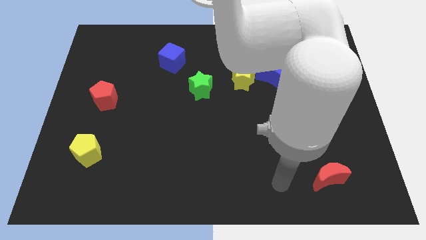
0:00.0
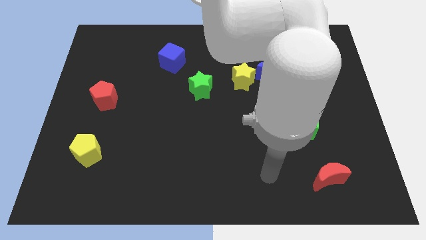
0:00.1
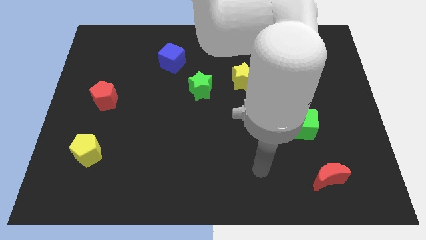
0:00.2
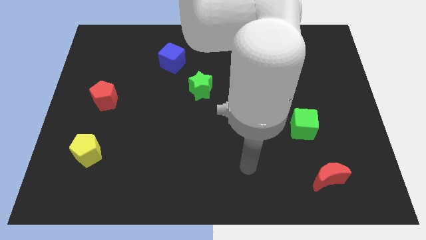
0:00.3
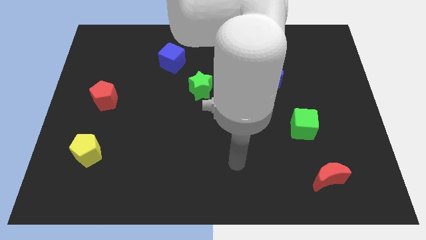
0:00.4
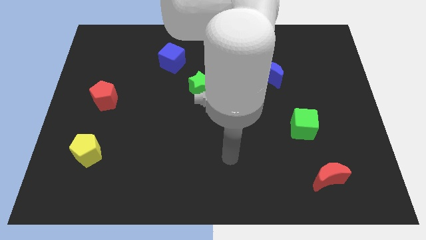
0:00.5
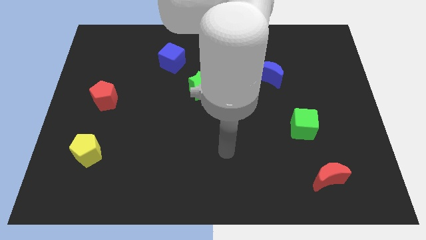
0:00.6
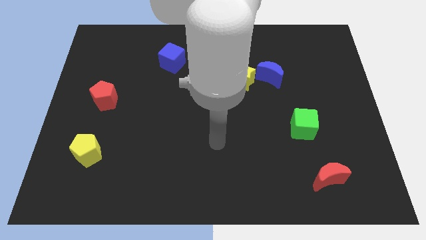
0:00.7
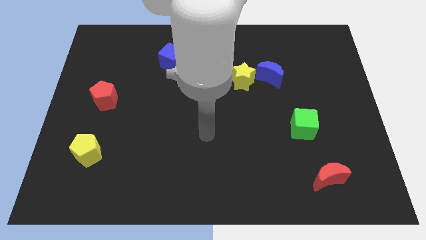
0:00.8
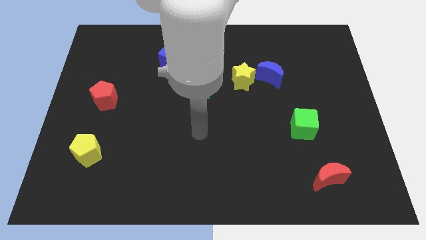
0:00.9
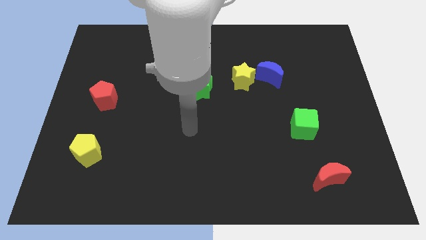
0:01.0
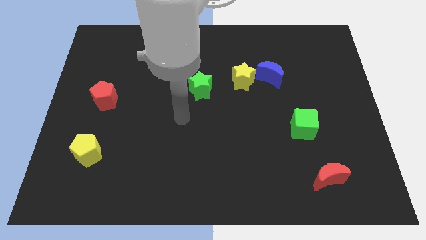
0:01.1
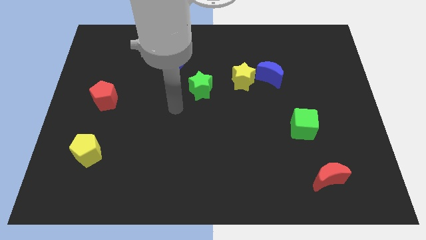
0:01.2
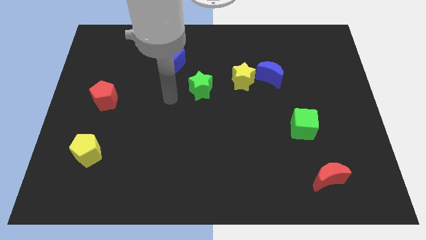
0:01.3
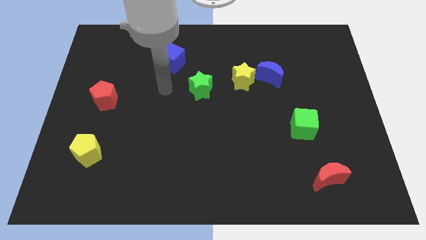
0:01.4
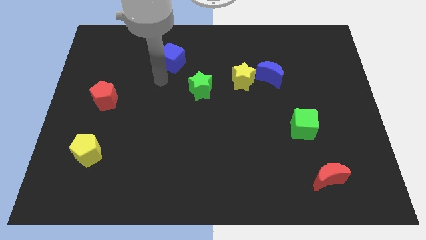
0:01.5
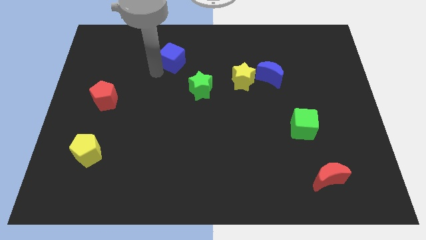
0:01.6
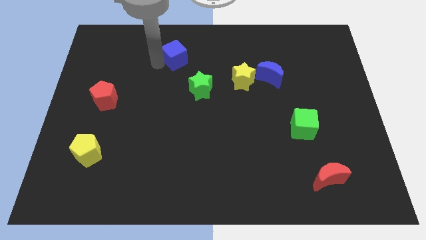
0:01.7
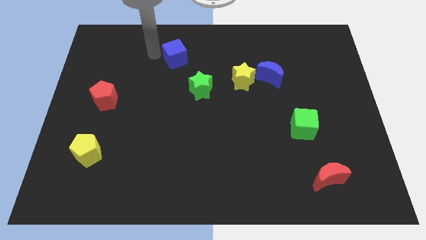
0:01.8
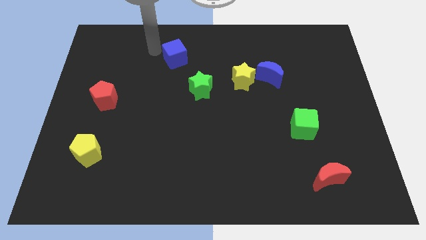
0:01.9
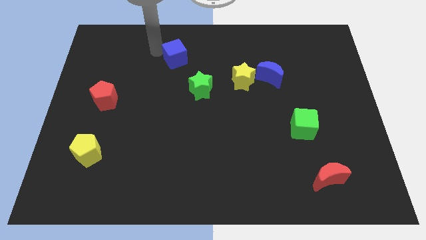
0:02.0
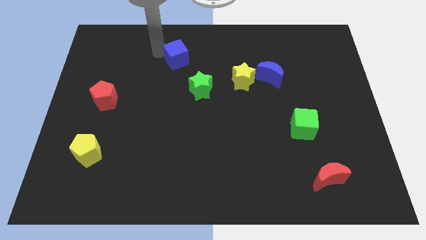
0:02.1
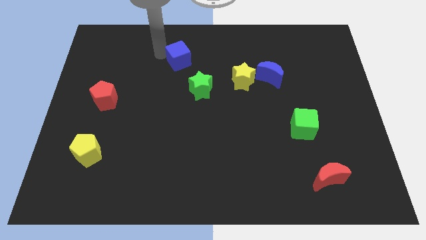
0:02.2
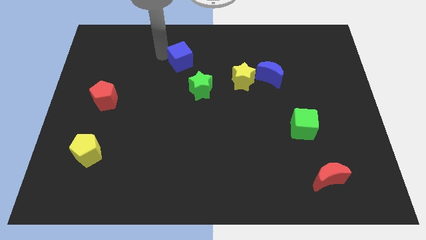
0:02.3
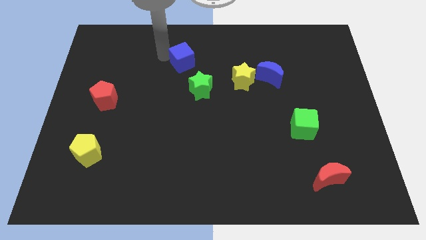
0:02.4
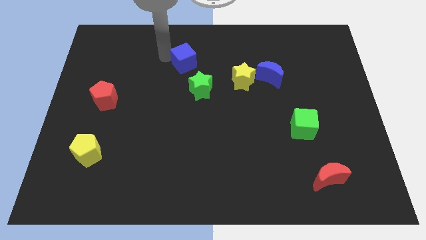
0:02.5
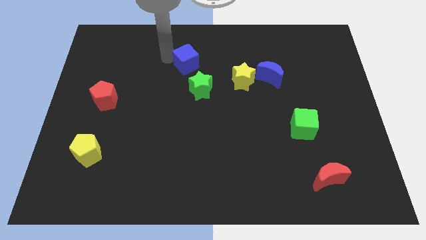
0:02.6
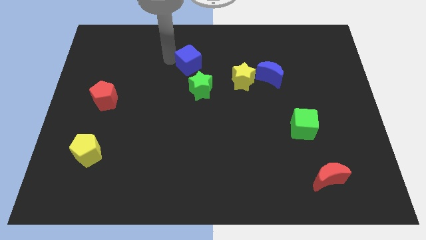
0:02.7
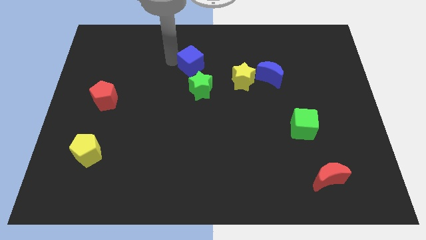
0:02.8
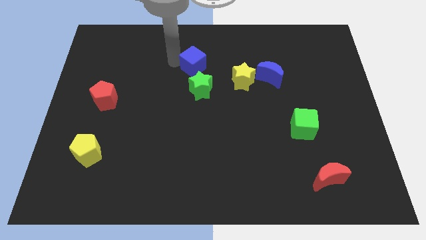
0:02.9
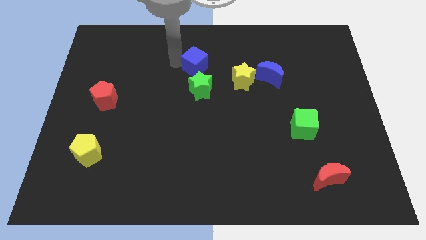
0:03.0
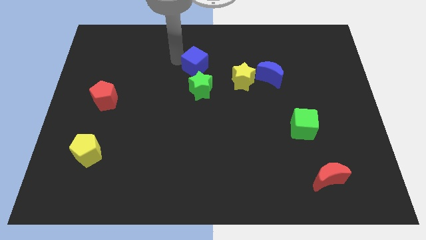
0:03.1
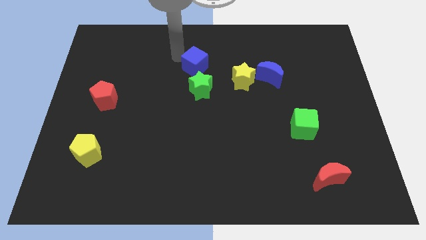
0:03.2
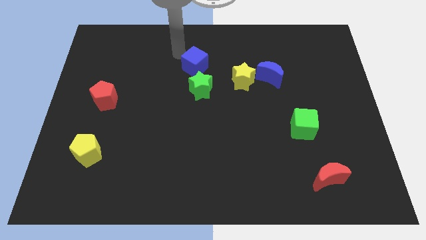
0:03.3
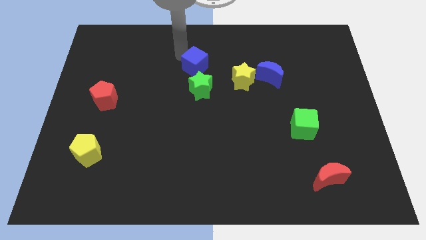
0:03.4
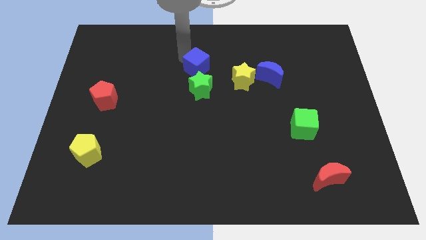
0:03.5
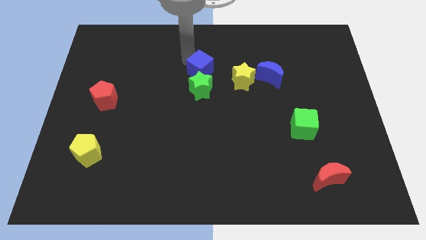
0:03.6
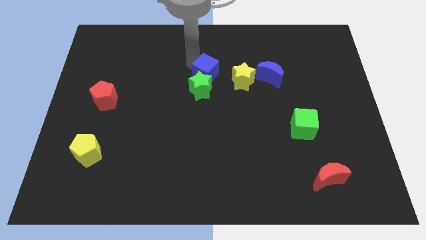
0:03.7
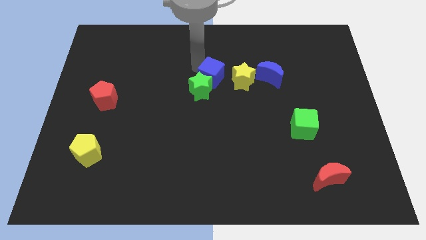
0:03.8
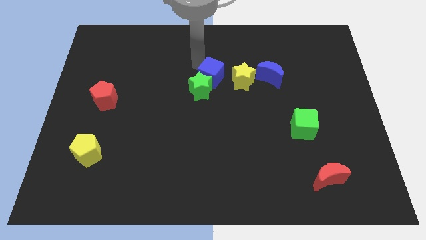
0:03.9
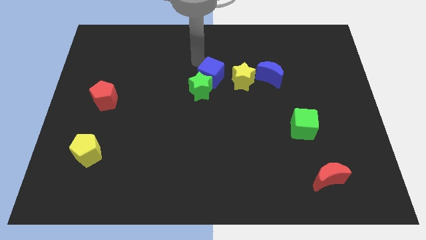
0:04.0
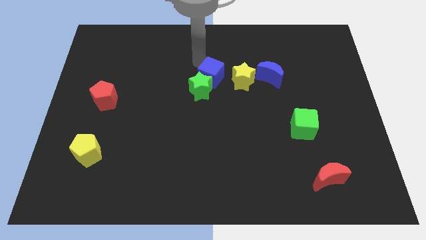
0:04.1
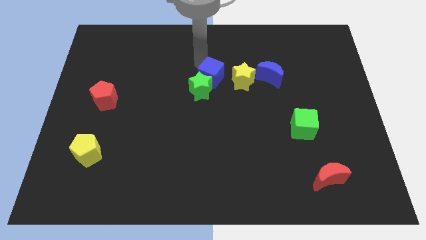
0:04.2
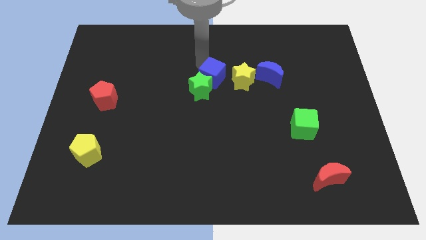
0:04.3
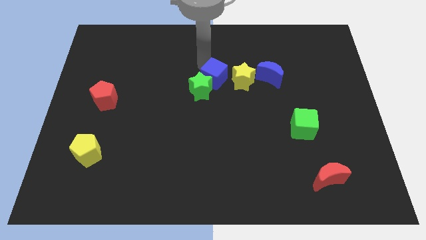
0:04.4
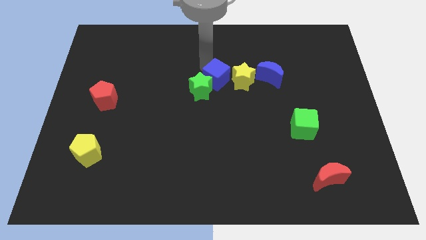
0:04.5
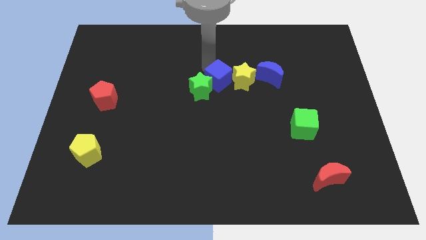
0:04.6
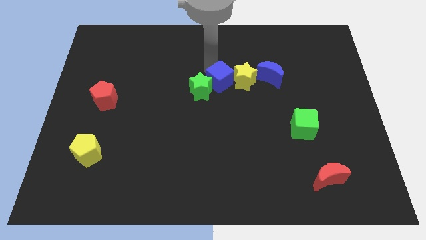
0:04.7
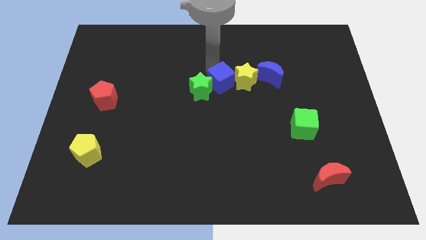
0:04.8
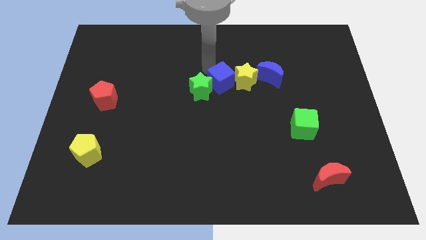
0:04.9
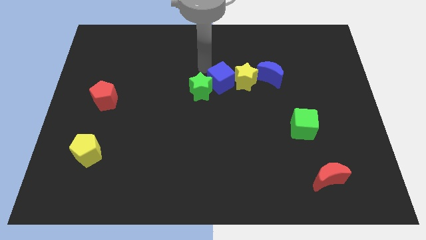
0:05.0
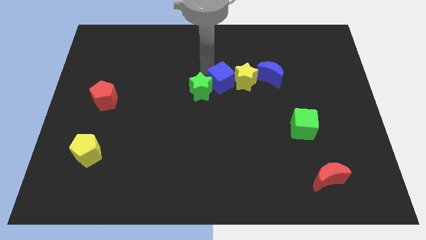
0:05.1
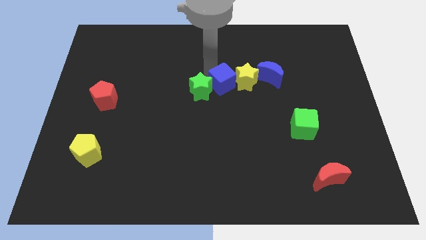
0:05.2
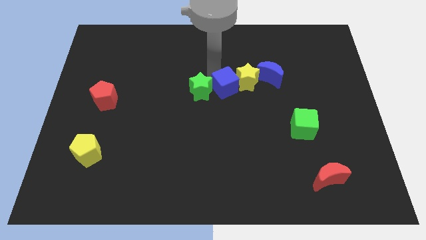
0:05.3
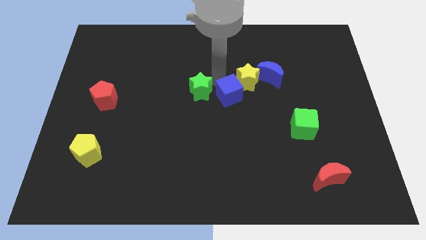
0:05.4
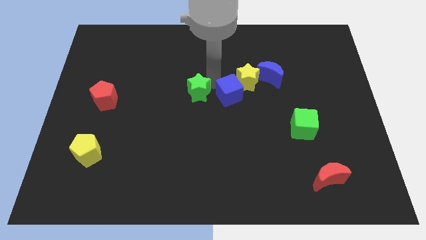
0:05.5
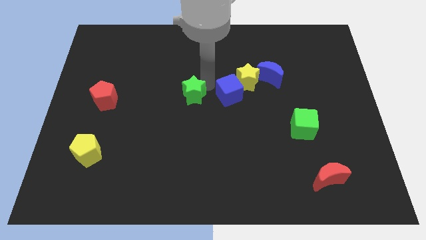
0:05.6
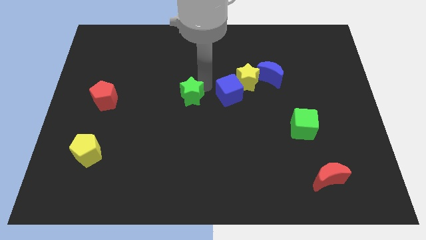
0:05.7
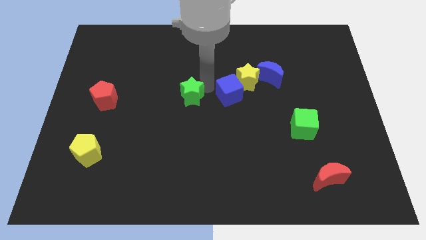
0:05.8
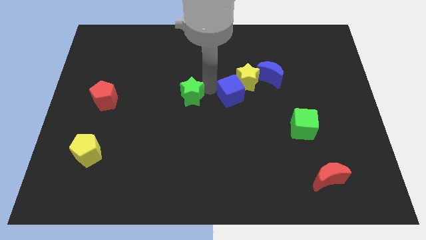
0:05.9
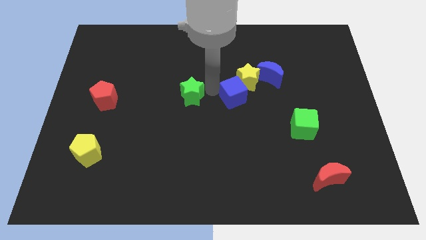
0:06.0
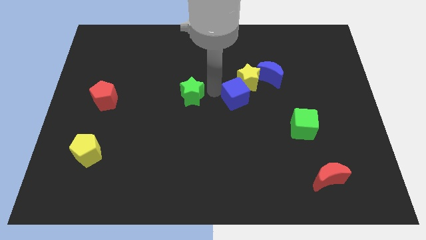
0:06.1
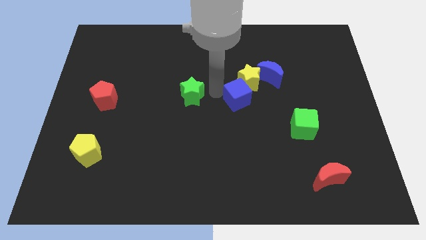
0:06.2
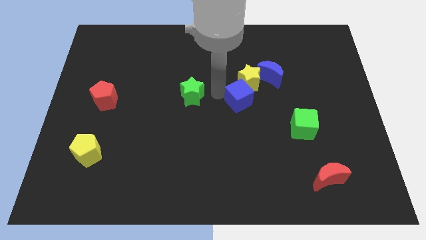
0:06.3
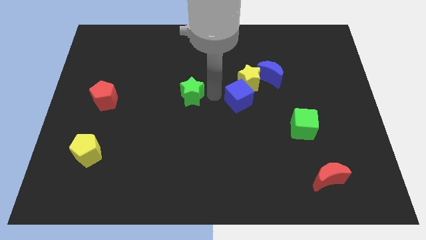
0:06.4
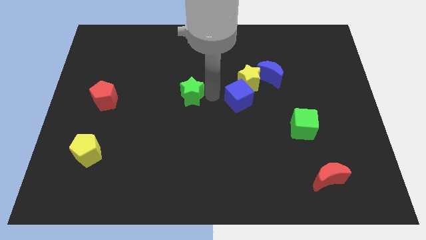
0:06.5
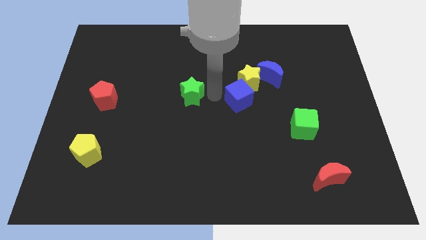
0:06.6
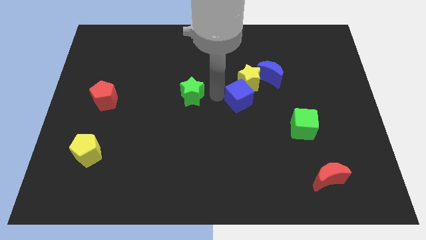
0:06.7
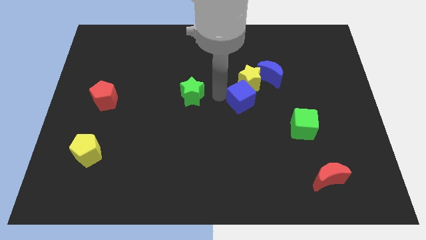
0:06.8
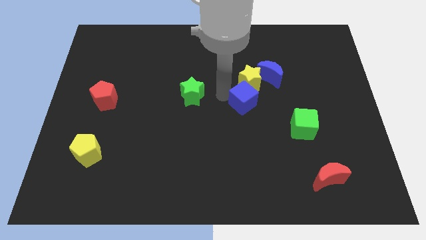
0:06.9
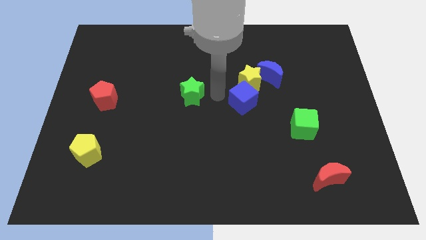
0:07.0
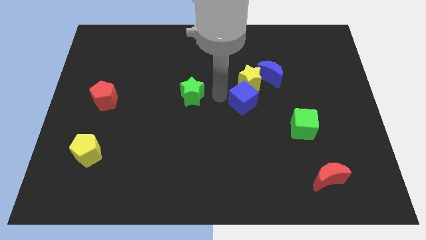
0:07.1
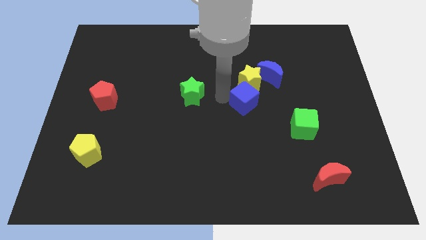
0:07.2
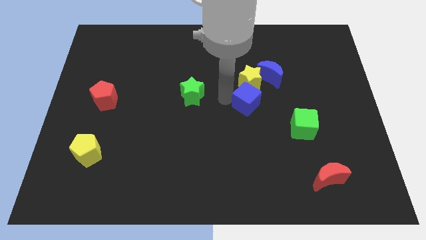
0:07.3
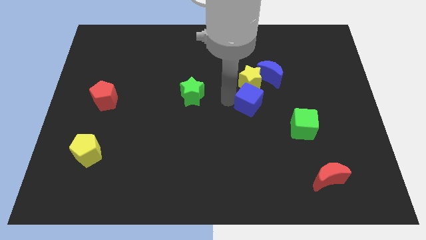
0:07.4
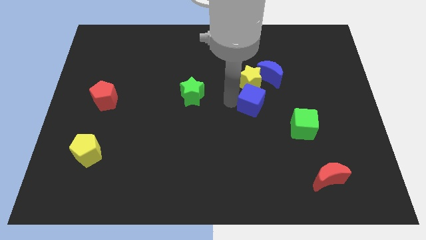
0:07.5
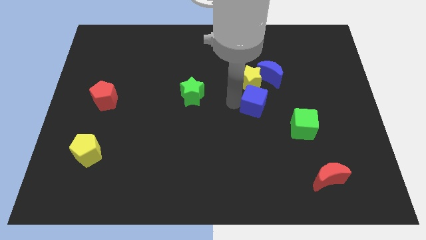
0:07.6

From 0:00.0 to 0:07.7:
push the blue cube to the bottom of the blue moon

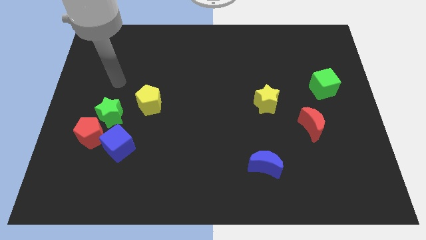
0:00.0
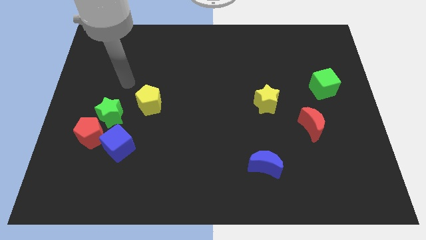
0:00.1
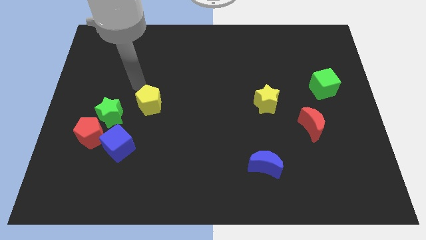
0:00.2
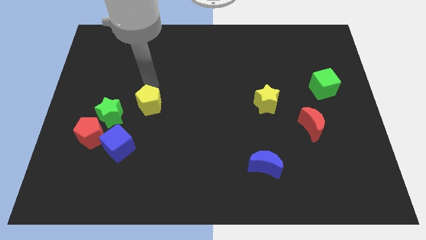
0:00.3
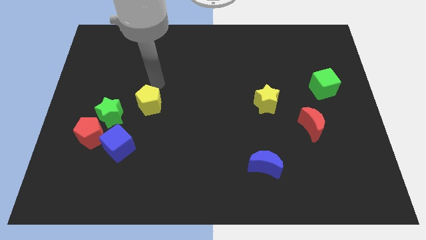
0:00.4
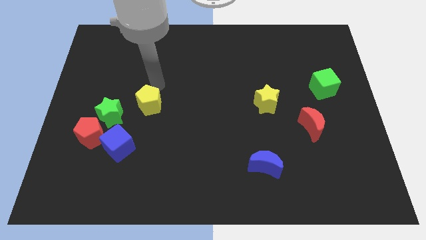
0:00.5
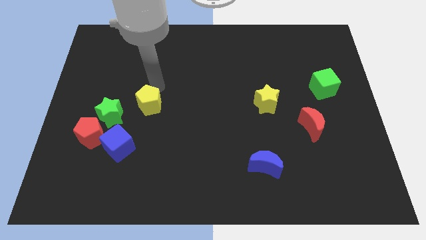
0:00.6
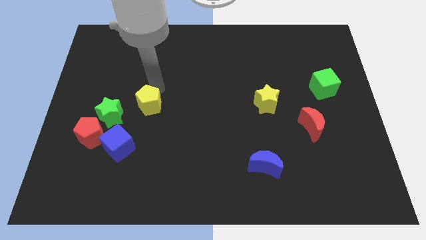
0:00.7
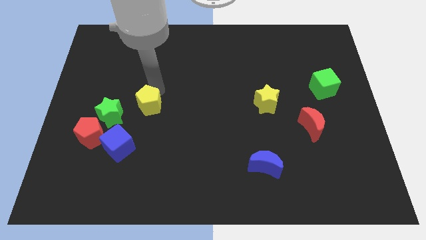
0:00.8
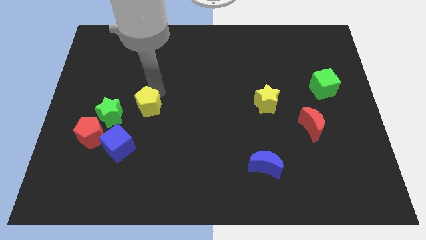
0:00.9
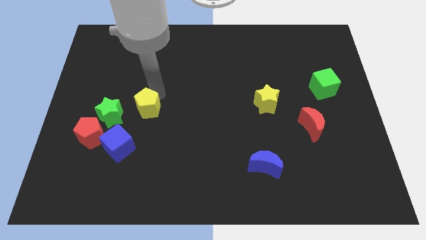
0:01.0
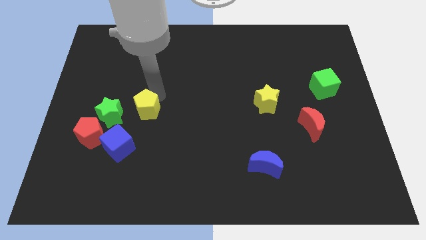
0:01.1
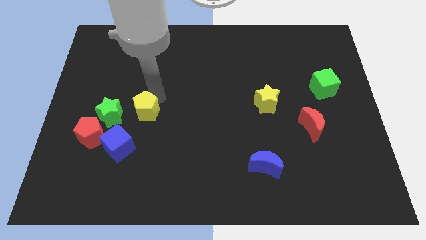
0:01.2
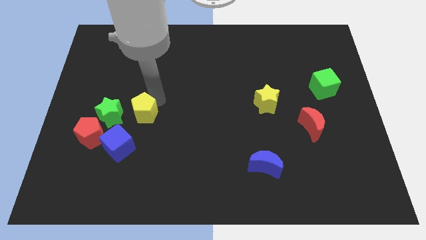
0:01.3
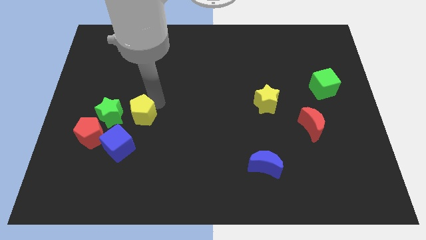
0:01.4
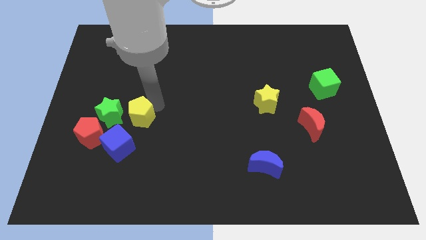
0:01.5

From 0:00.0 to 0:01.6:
slide the yellow pentagon diagonally down and to the right of the green star
